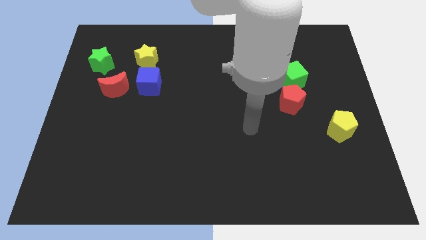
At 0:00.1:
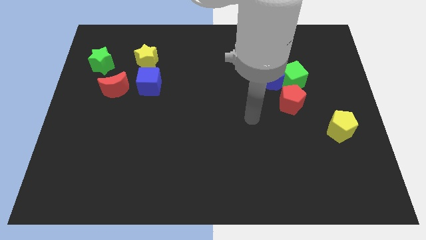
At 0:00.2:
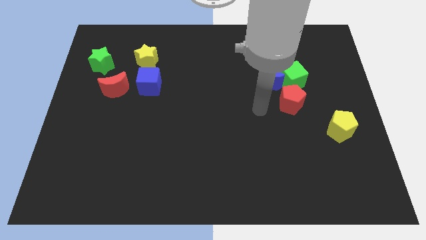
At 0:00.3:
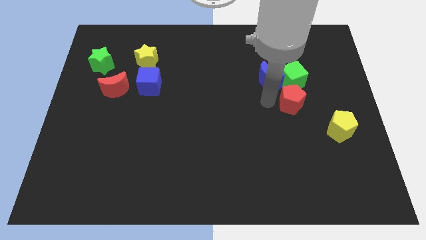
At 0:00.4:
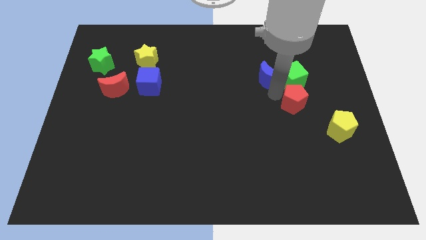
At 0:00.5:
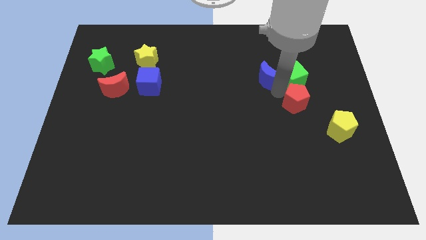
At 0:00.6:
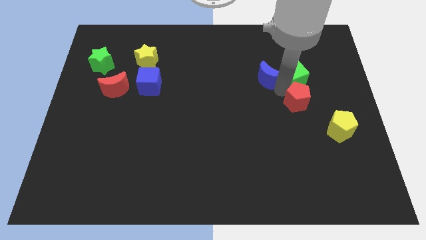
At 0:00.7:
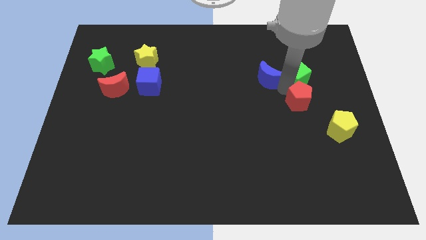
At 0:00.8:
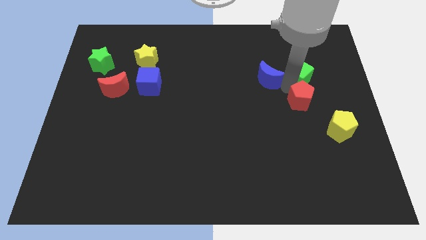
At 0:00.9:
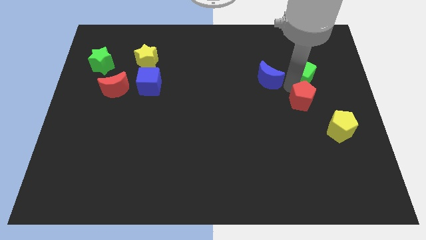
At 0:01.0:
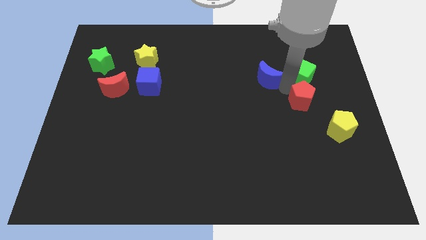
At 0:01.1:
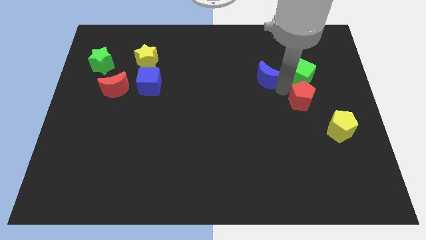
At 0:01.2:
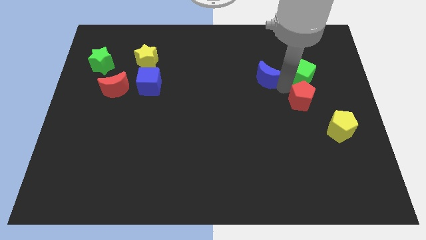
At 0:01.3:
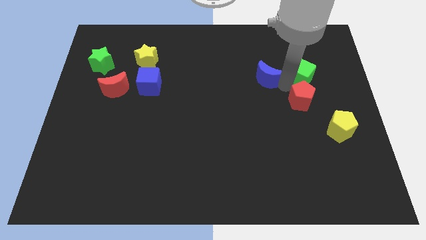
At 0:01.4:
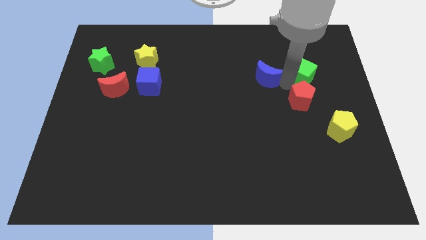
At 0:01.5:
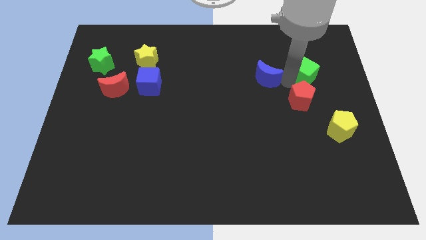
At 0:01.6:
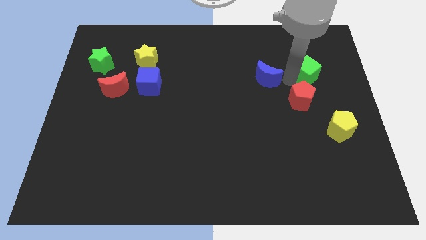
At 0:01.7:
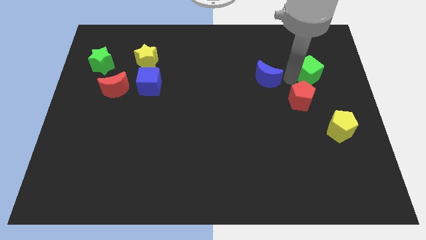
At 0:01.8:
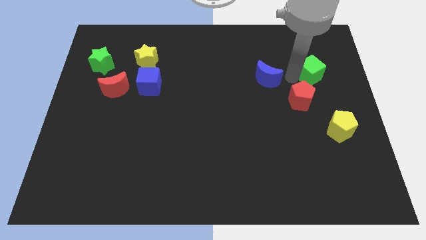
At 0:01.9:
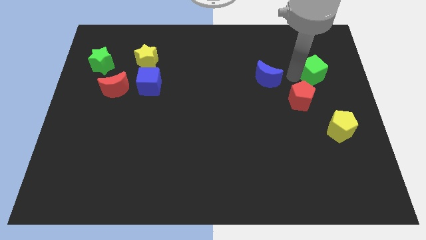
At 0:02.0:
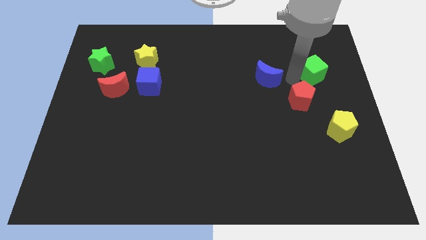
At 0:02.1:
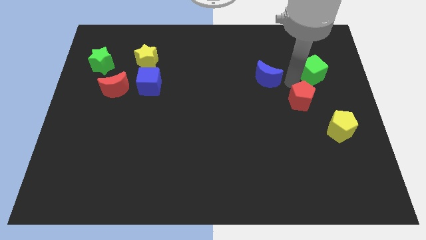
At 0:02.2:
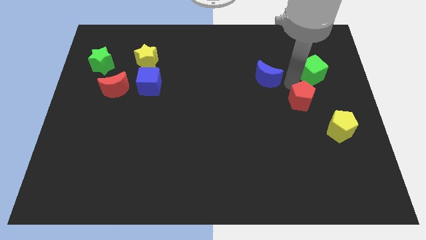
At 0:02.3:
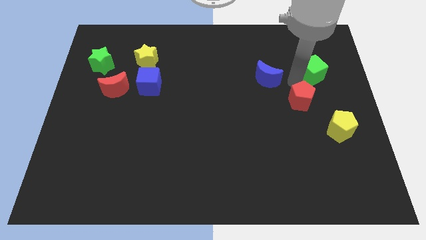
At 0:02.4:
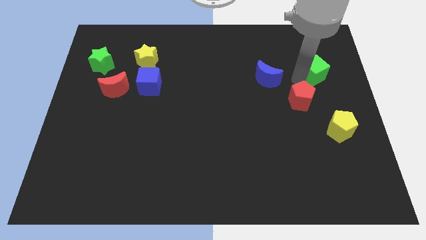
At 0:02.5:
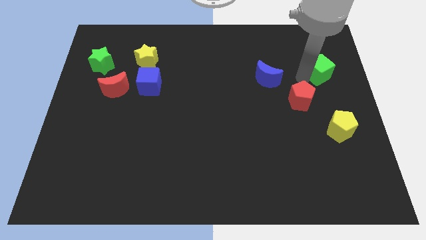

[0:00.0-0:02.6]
separate the green cube from the blue moon and red pentagon

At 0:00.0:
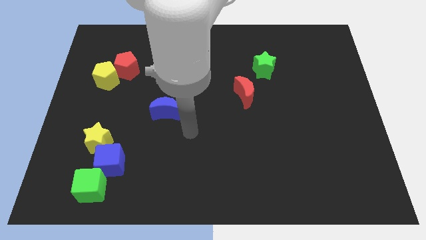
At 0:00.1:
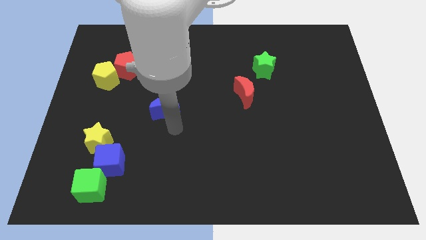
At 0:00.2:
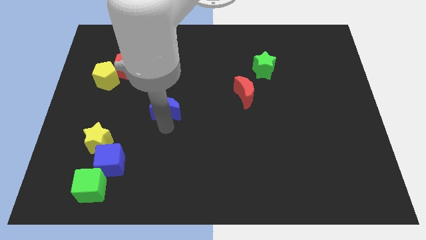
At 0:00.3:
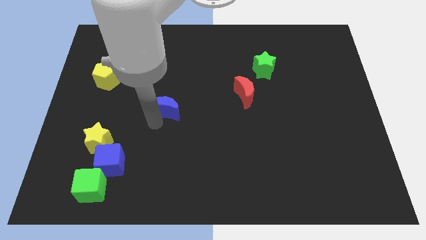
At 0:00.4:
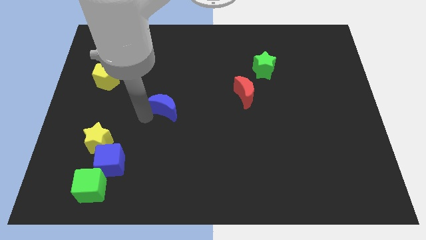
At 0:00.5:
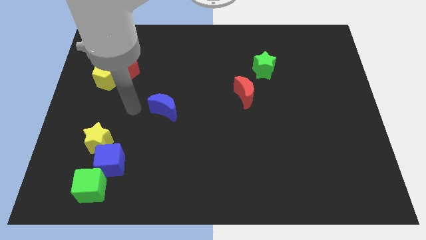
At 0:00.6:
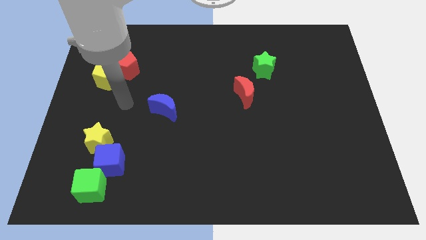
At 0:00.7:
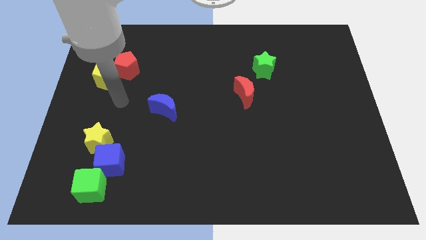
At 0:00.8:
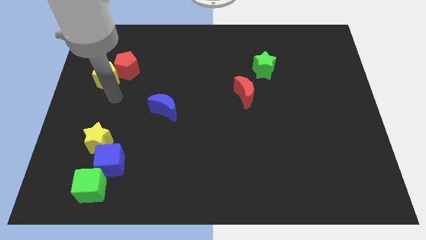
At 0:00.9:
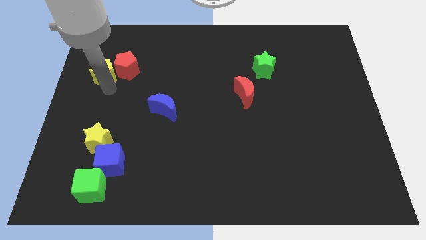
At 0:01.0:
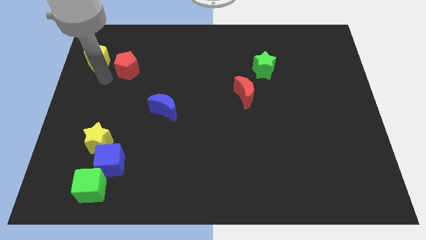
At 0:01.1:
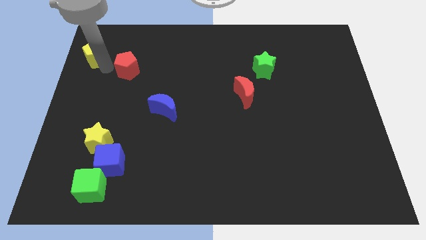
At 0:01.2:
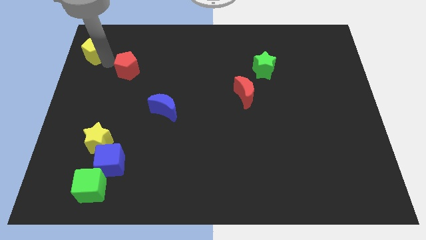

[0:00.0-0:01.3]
pull the red pentagon apart from the yellow pentagon

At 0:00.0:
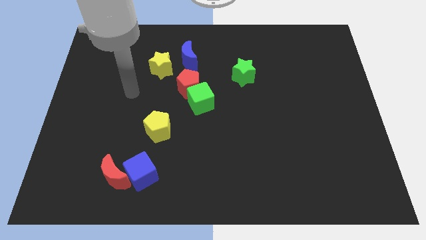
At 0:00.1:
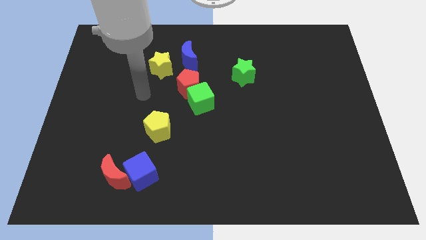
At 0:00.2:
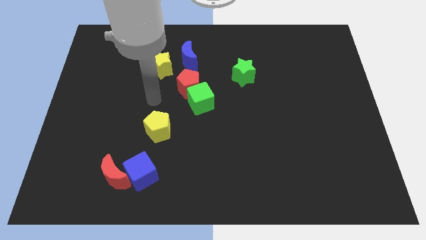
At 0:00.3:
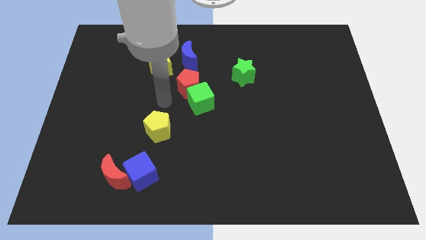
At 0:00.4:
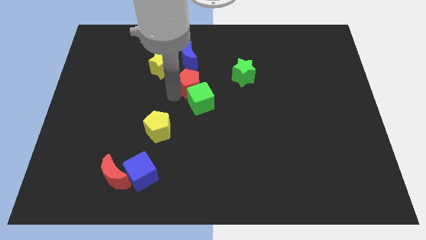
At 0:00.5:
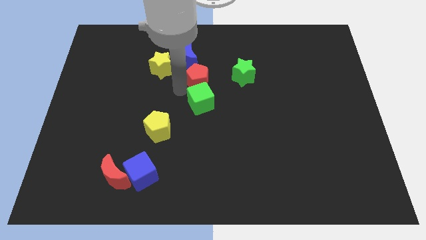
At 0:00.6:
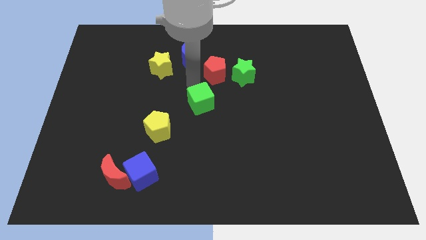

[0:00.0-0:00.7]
separate the green cube from the red pentagon

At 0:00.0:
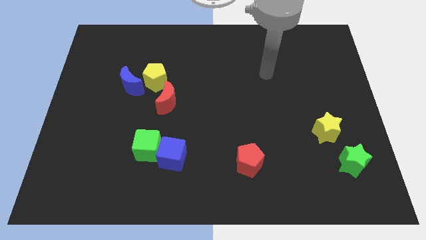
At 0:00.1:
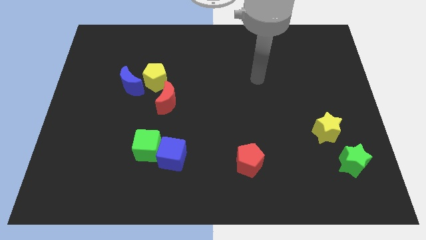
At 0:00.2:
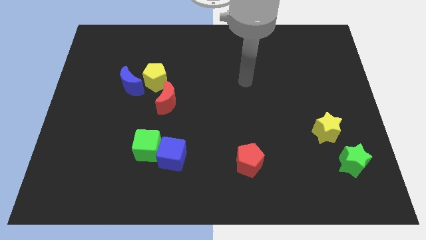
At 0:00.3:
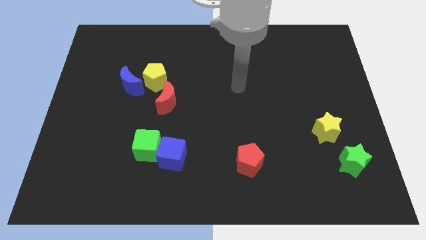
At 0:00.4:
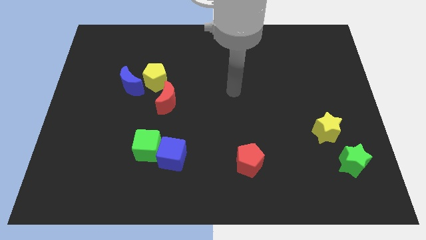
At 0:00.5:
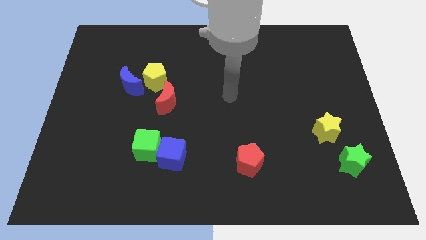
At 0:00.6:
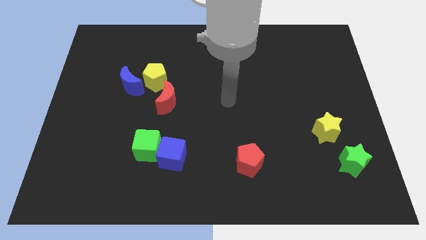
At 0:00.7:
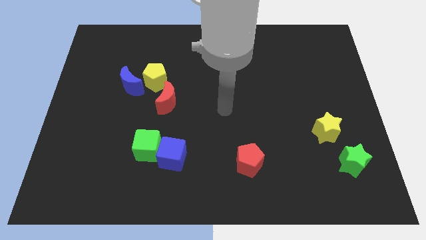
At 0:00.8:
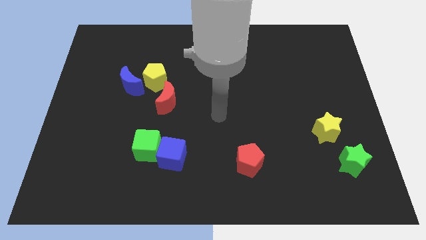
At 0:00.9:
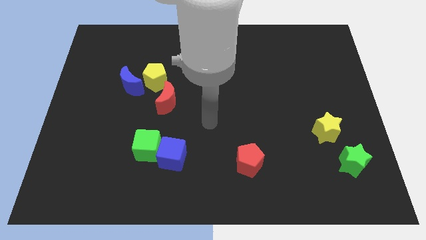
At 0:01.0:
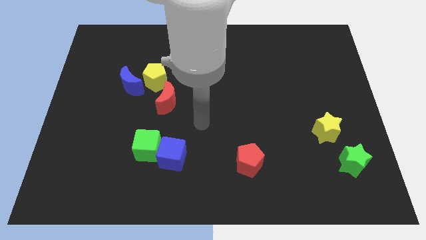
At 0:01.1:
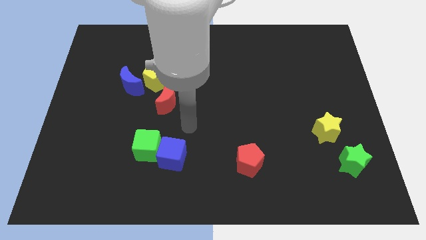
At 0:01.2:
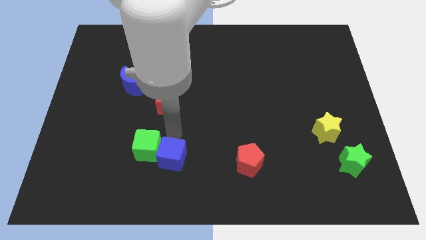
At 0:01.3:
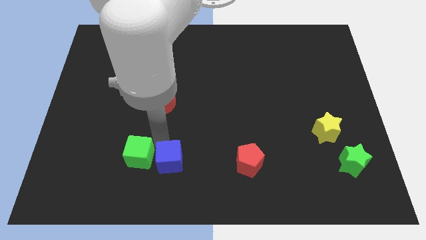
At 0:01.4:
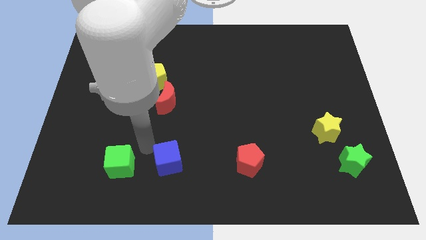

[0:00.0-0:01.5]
move the blue cube away from the green cube

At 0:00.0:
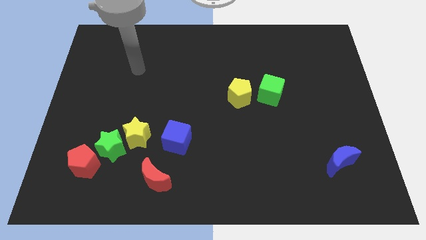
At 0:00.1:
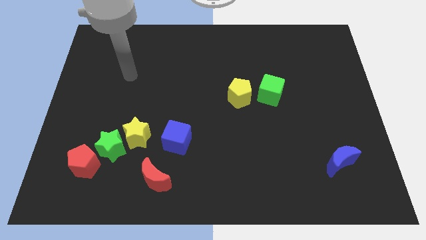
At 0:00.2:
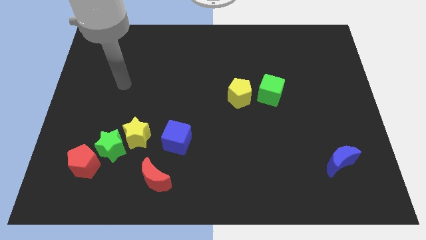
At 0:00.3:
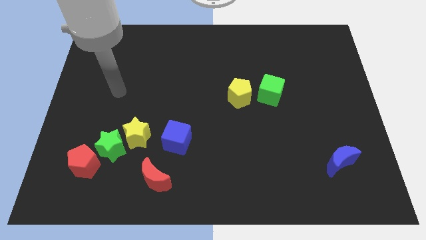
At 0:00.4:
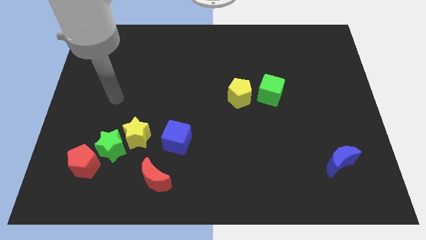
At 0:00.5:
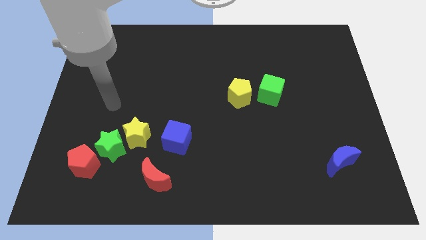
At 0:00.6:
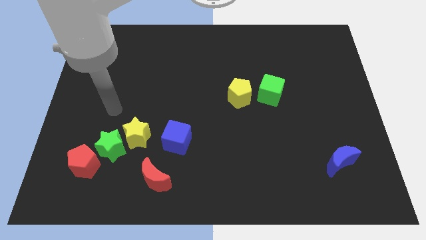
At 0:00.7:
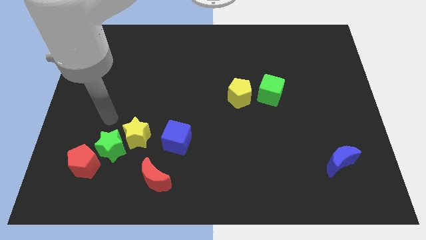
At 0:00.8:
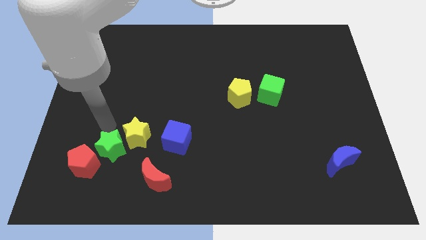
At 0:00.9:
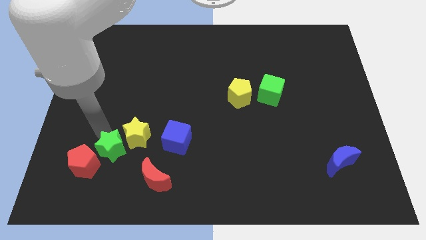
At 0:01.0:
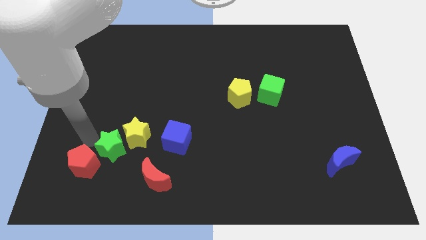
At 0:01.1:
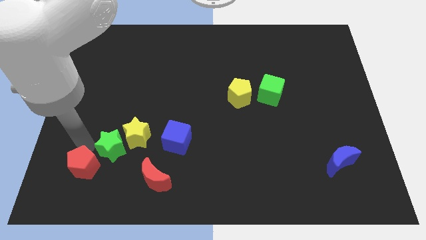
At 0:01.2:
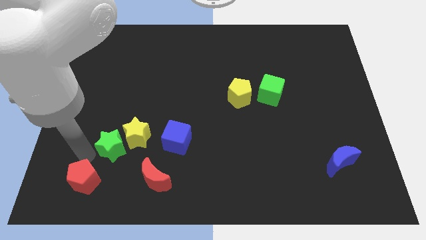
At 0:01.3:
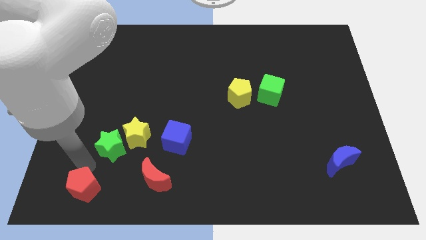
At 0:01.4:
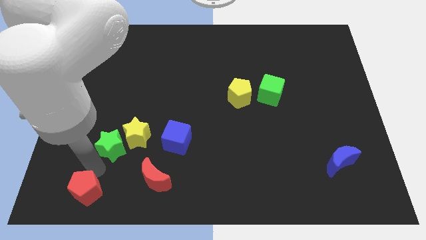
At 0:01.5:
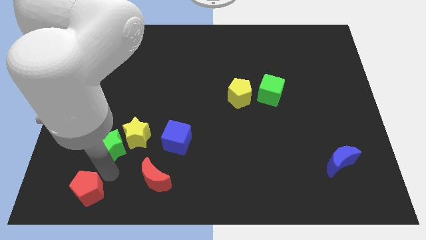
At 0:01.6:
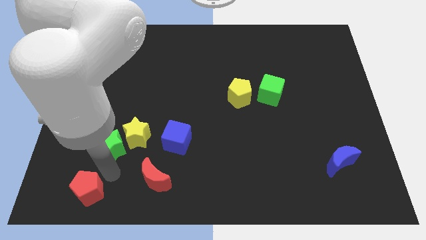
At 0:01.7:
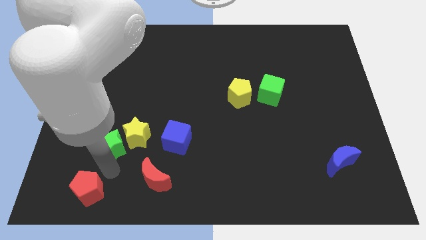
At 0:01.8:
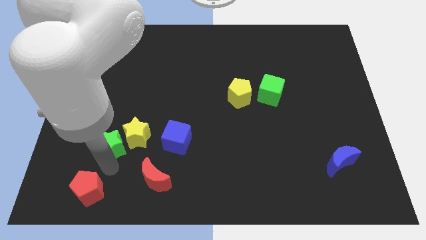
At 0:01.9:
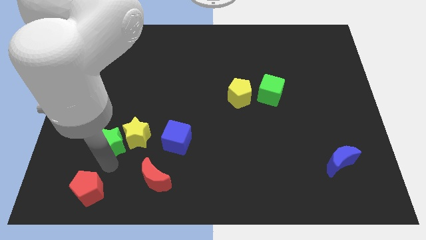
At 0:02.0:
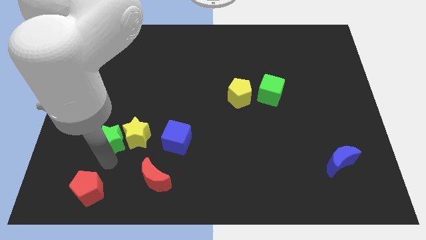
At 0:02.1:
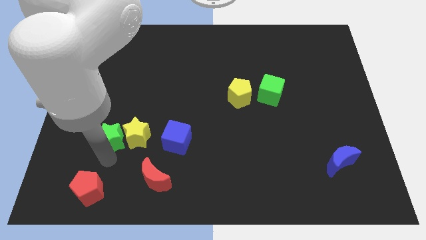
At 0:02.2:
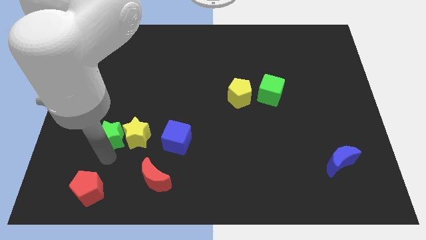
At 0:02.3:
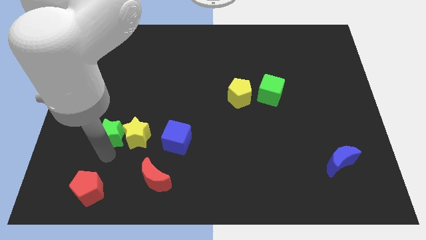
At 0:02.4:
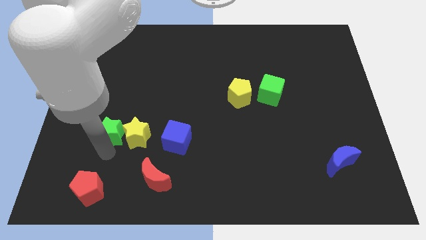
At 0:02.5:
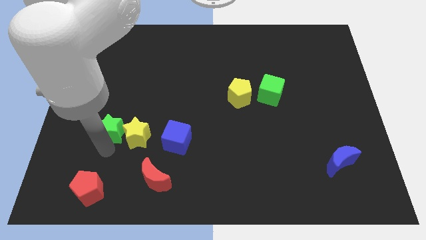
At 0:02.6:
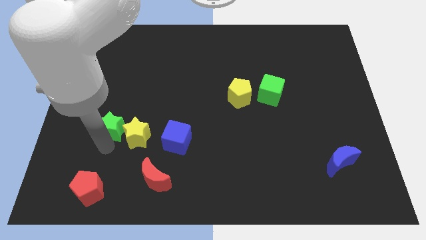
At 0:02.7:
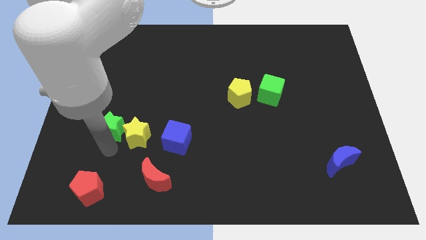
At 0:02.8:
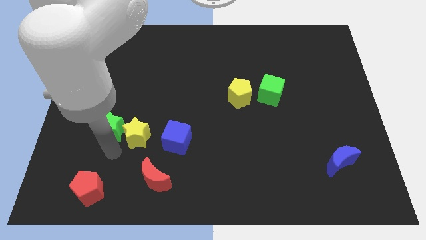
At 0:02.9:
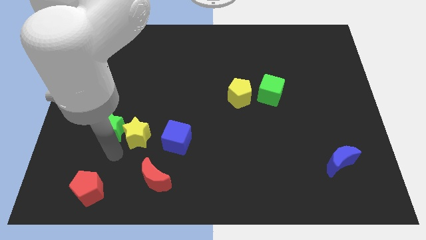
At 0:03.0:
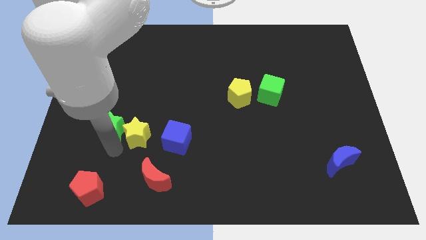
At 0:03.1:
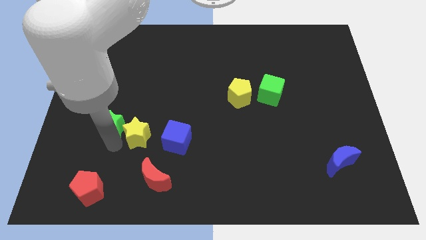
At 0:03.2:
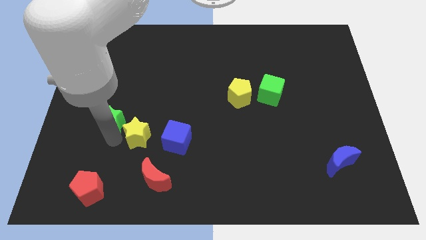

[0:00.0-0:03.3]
pull the green star apart from the yellow star and red pentagon

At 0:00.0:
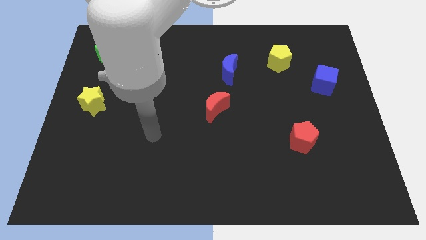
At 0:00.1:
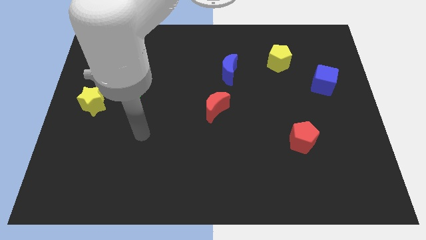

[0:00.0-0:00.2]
pull the green star apart from the yellow star
